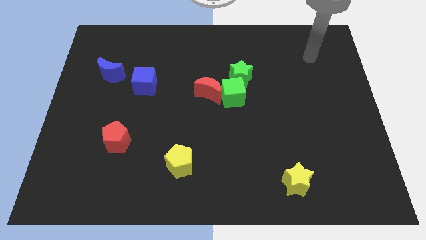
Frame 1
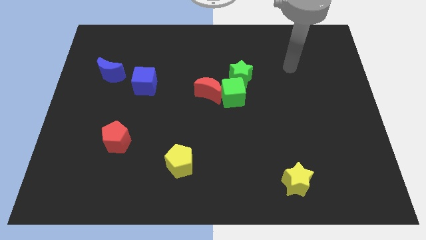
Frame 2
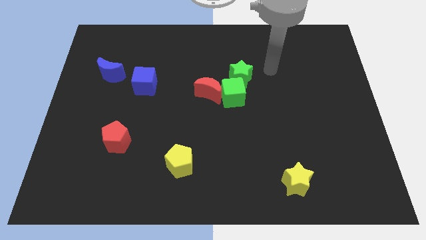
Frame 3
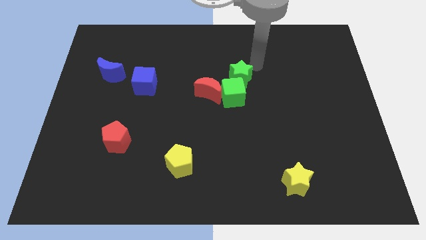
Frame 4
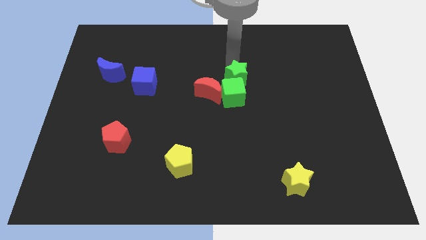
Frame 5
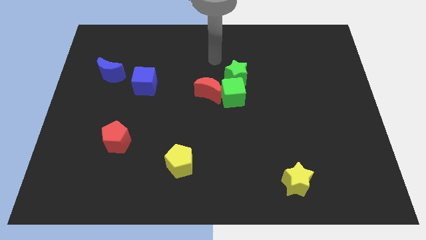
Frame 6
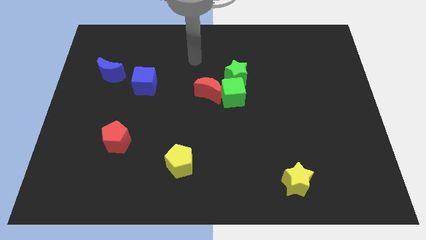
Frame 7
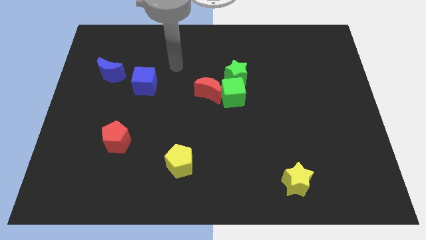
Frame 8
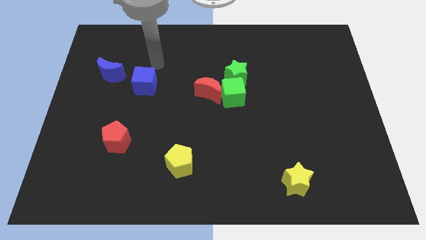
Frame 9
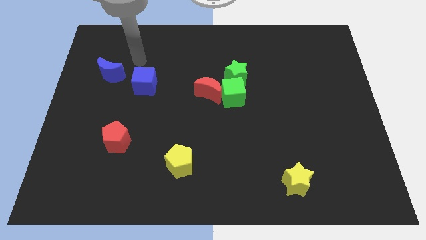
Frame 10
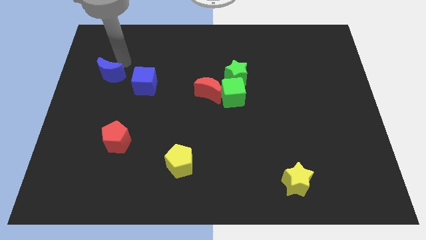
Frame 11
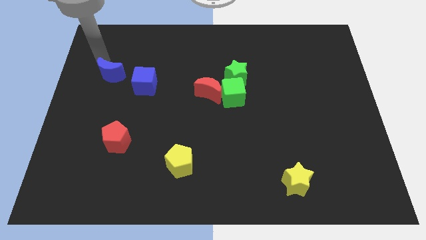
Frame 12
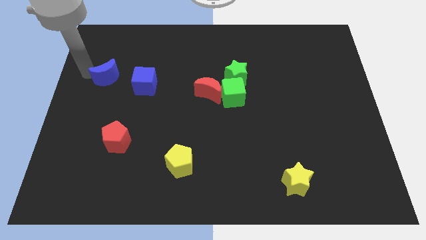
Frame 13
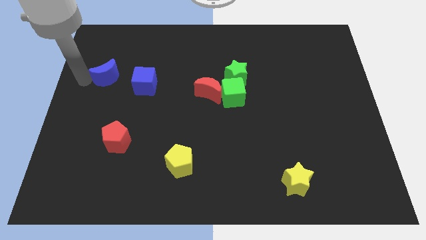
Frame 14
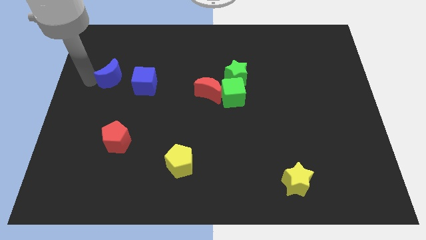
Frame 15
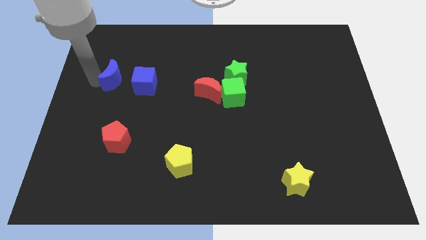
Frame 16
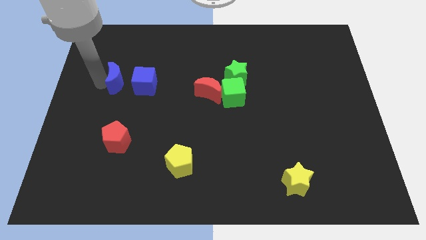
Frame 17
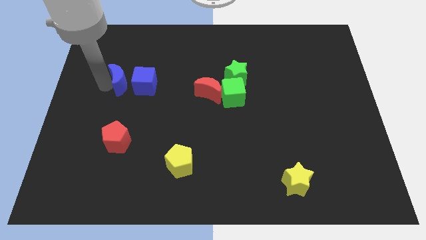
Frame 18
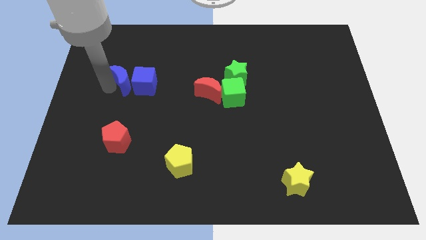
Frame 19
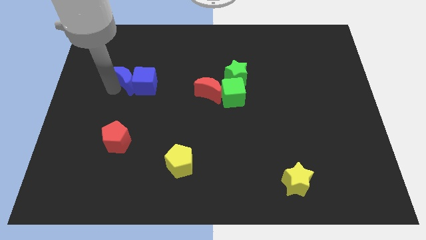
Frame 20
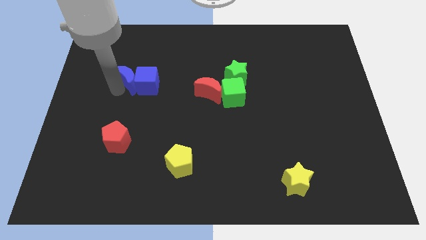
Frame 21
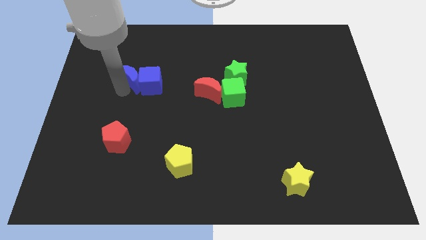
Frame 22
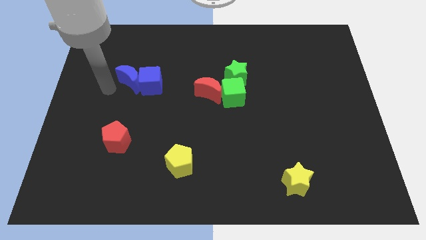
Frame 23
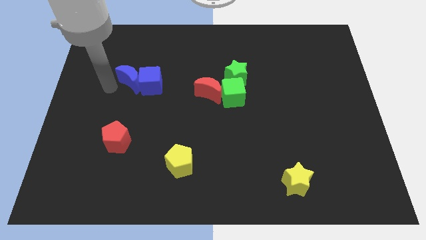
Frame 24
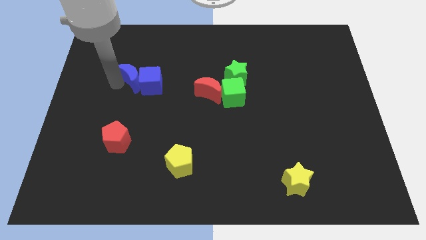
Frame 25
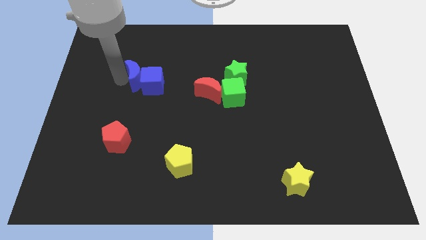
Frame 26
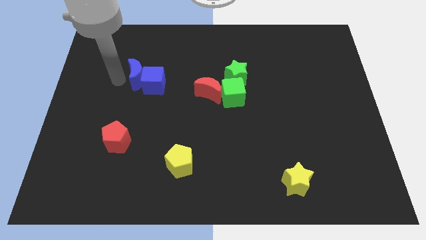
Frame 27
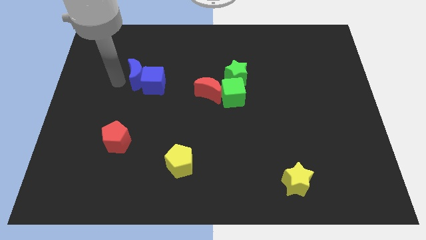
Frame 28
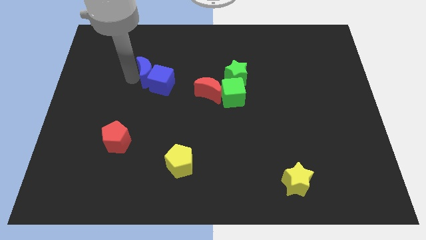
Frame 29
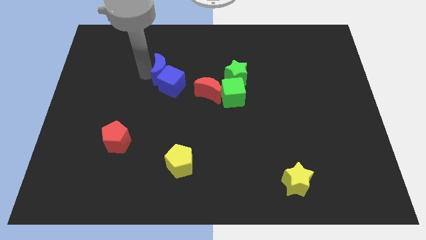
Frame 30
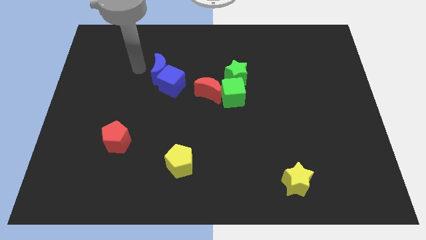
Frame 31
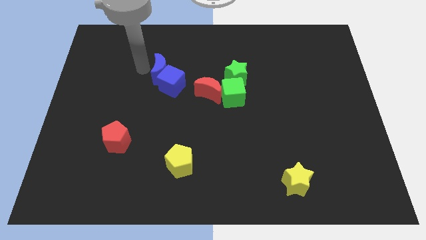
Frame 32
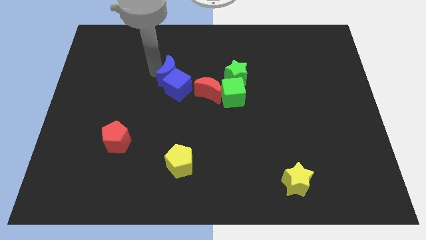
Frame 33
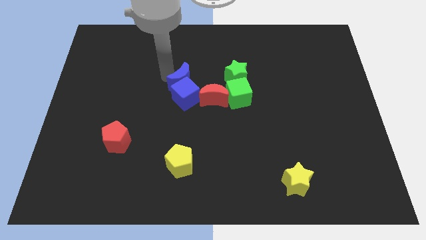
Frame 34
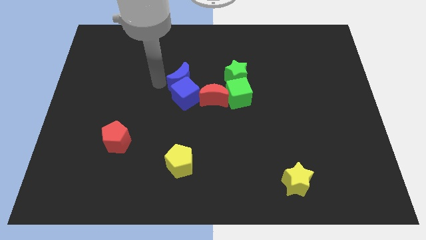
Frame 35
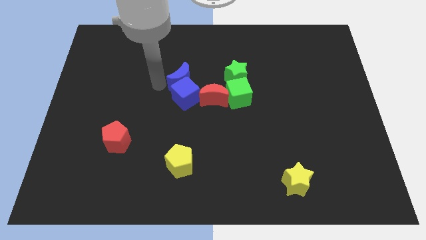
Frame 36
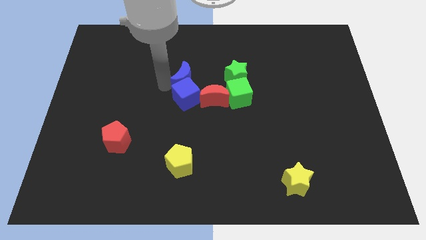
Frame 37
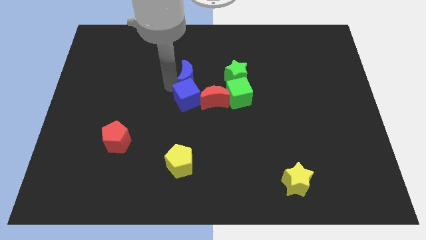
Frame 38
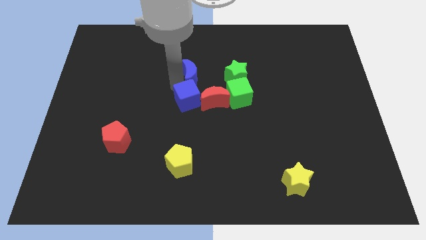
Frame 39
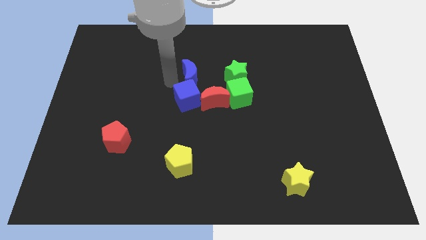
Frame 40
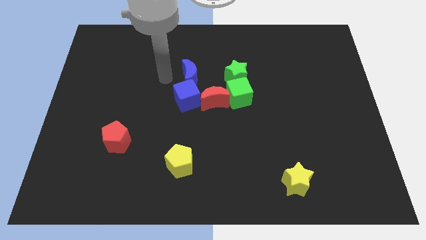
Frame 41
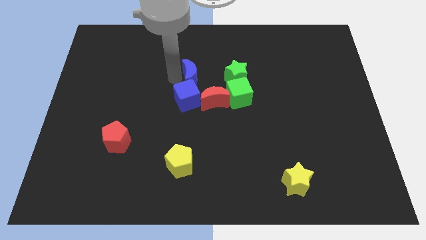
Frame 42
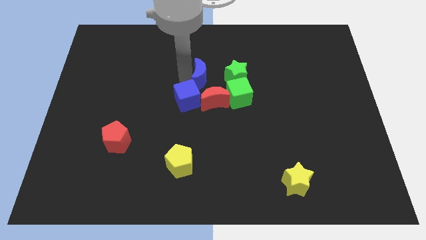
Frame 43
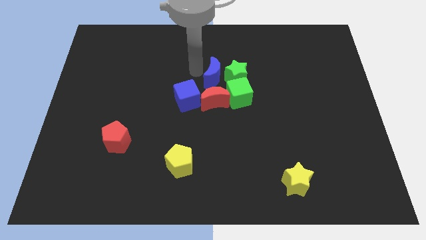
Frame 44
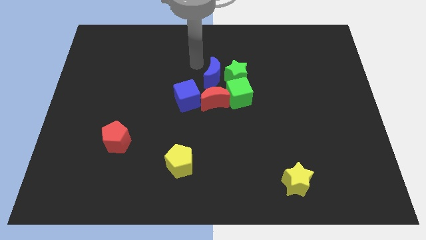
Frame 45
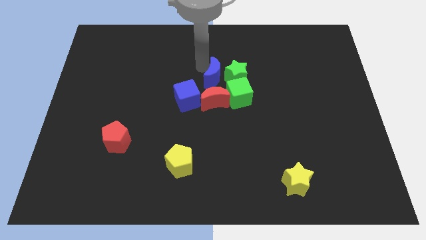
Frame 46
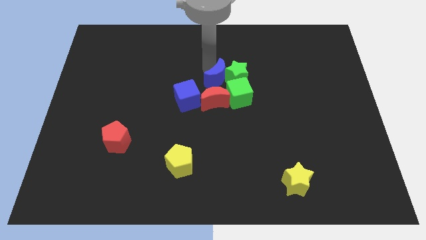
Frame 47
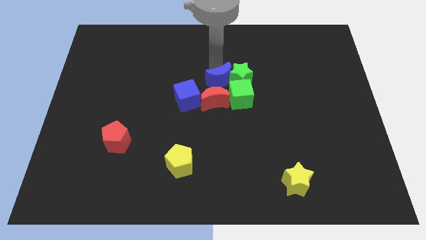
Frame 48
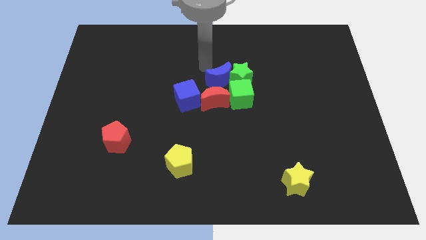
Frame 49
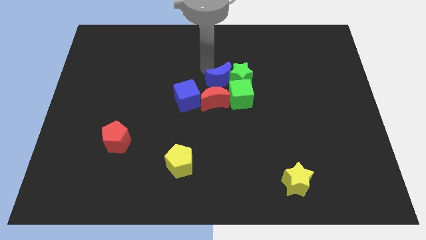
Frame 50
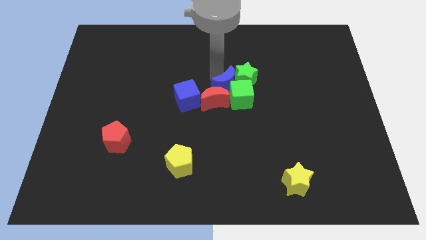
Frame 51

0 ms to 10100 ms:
slide the blue moon close to the green cube

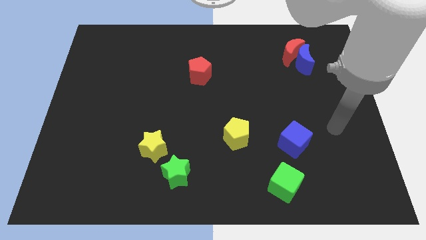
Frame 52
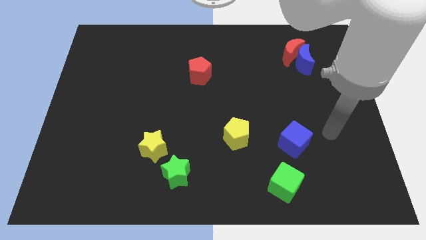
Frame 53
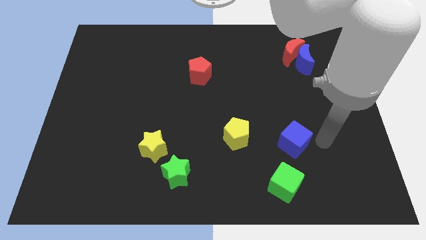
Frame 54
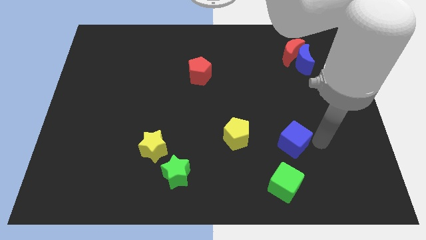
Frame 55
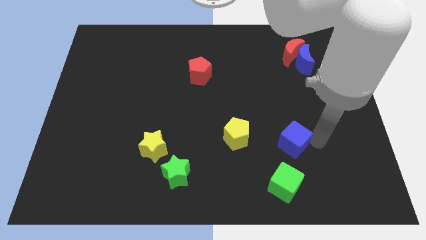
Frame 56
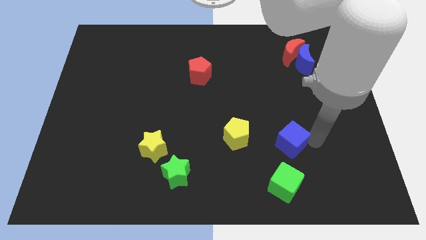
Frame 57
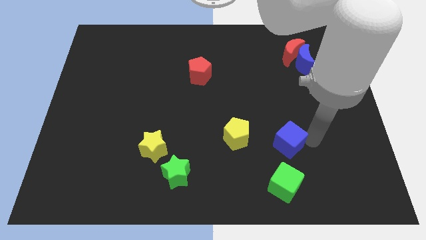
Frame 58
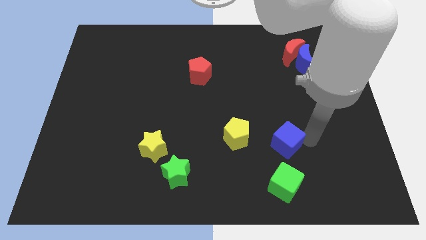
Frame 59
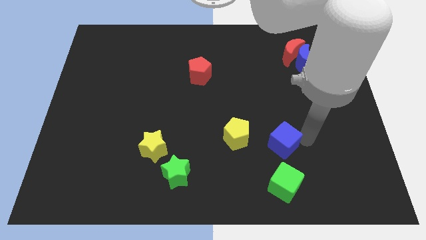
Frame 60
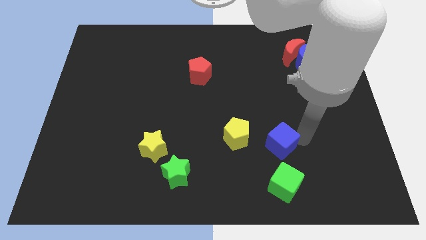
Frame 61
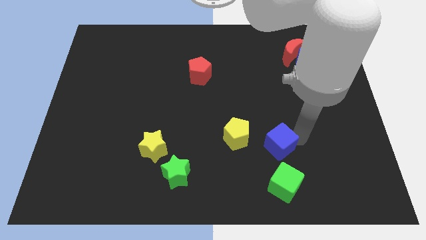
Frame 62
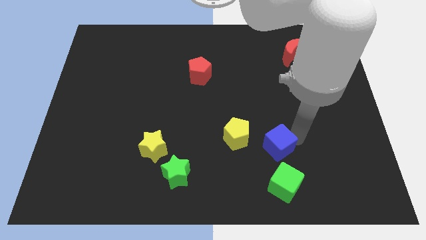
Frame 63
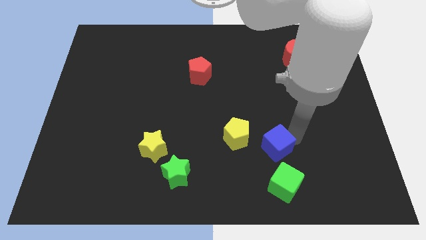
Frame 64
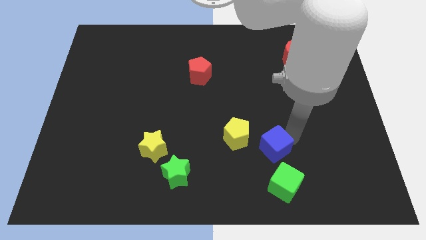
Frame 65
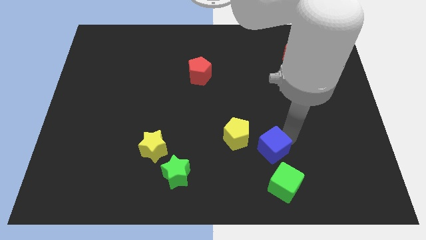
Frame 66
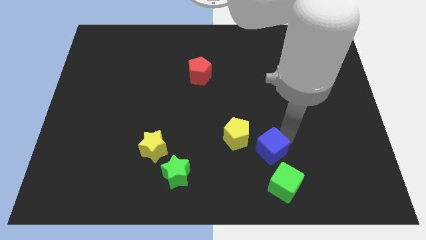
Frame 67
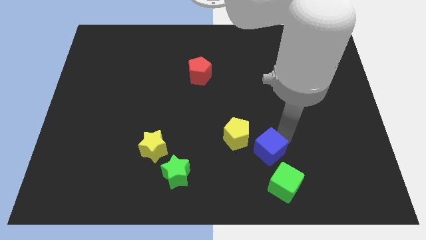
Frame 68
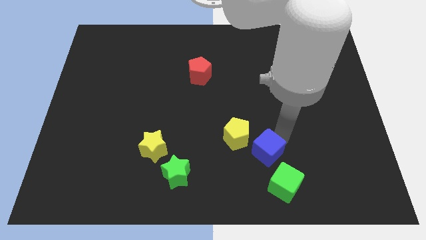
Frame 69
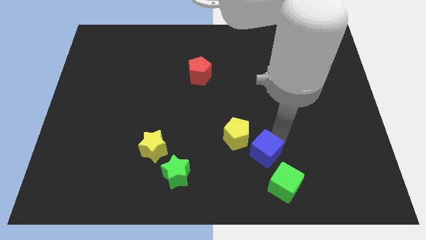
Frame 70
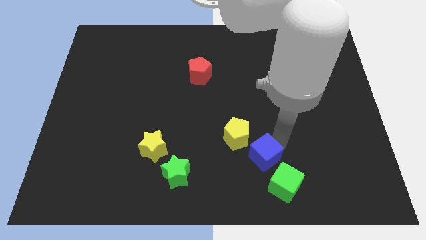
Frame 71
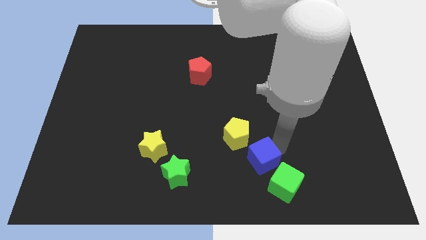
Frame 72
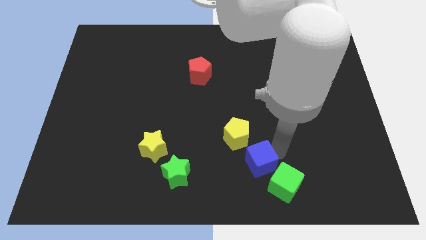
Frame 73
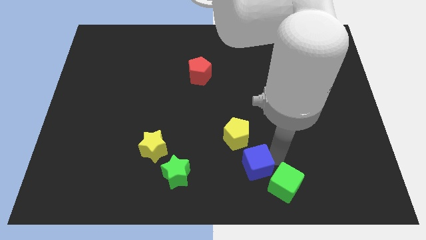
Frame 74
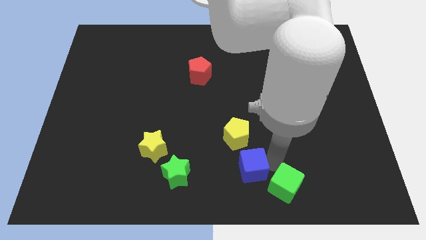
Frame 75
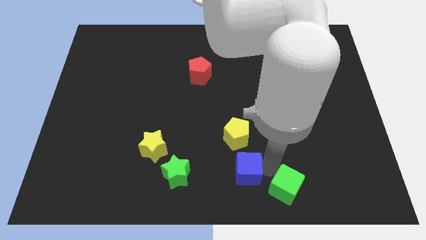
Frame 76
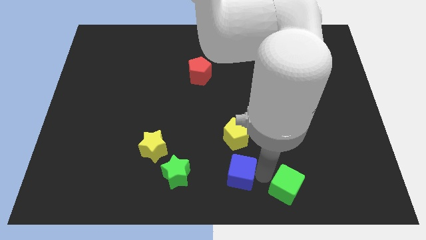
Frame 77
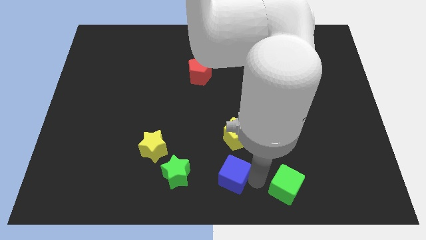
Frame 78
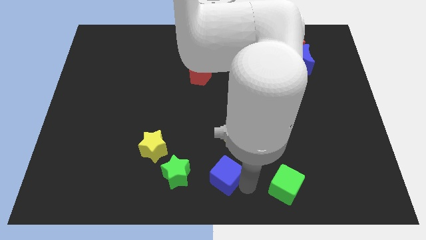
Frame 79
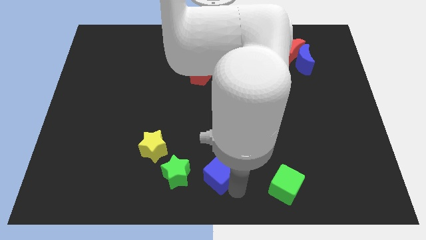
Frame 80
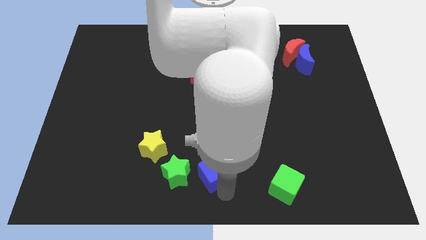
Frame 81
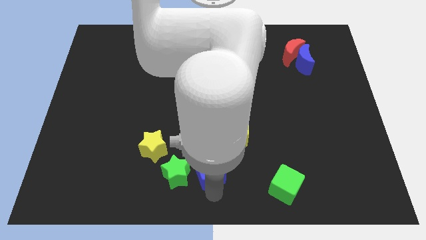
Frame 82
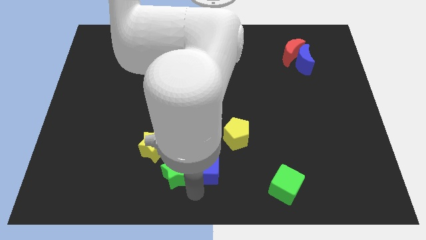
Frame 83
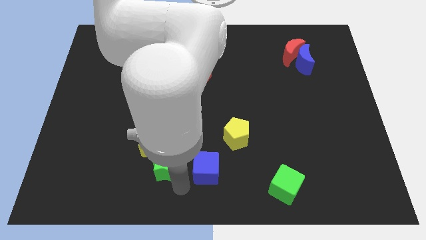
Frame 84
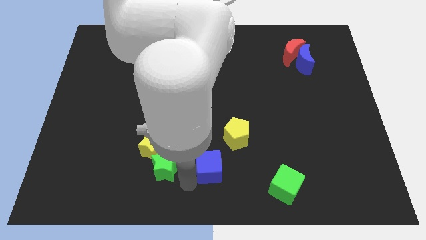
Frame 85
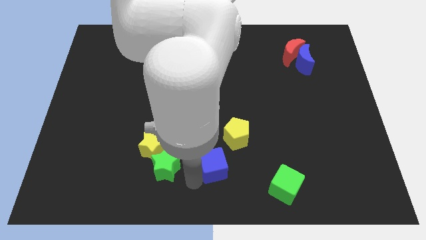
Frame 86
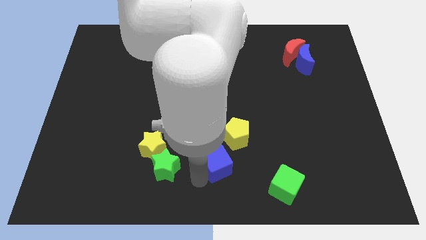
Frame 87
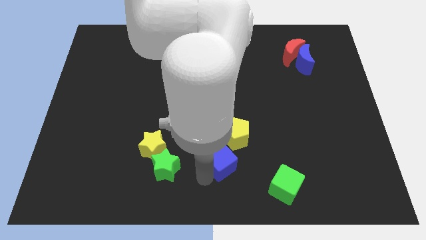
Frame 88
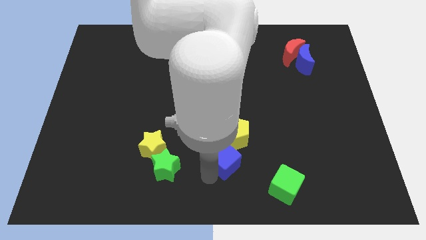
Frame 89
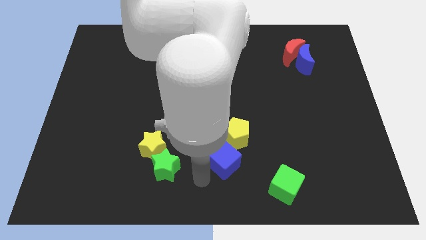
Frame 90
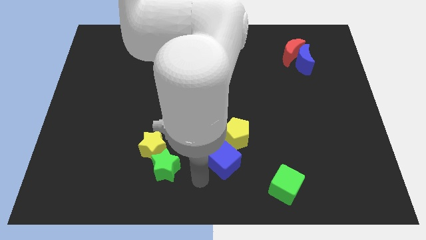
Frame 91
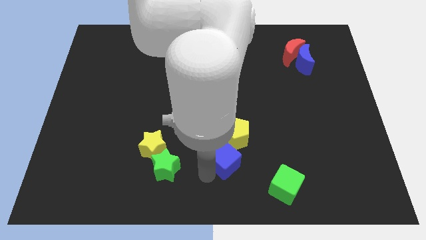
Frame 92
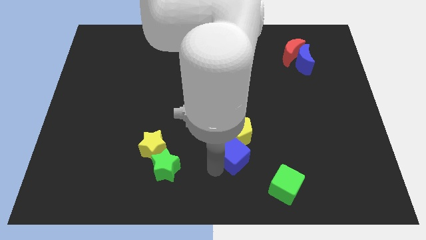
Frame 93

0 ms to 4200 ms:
move the blue cube to the yellow pentagon
